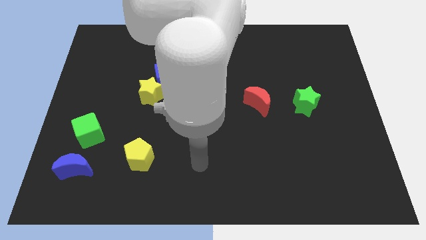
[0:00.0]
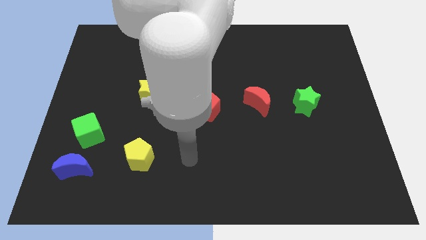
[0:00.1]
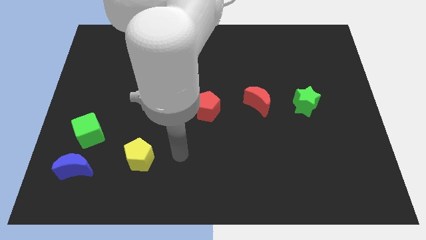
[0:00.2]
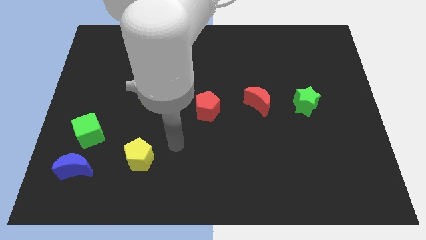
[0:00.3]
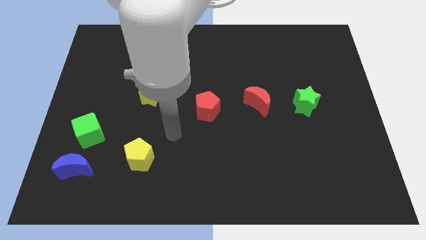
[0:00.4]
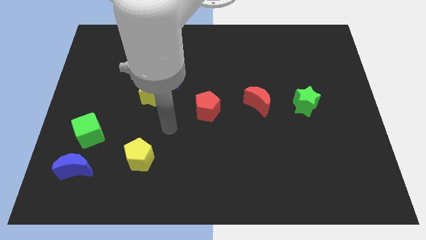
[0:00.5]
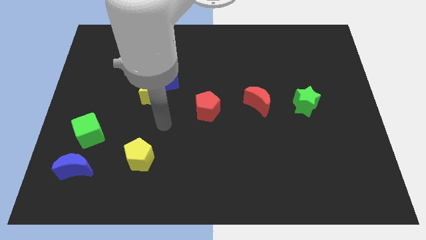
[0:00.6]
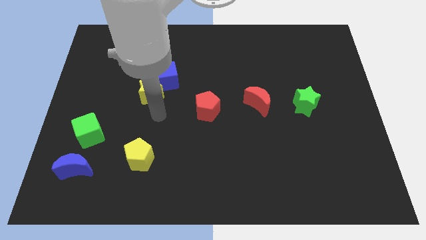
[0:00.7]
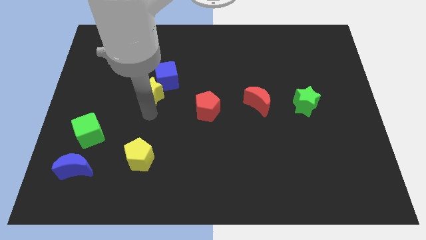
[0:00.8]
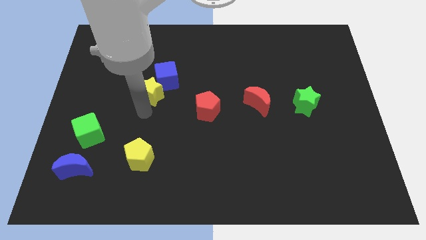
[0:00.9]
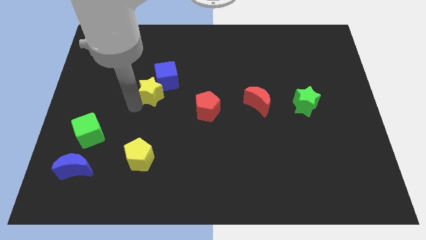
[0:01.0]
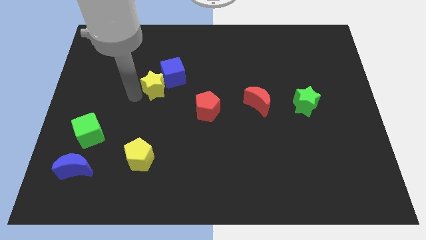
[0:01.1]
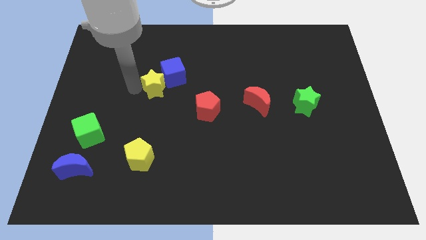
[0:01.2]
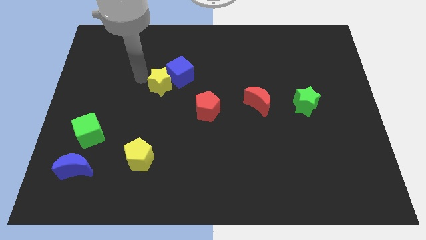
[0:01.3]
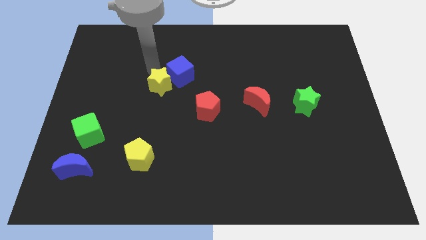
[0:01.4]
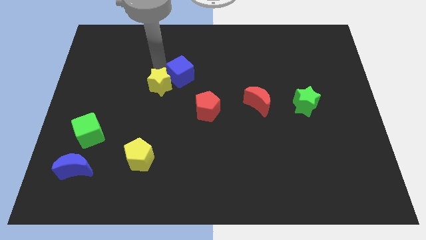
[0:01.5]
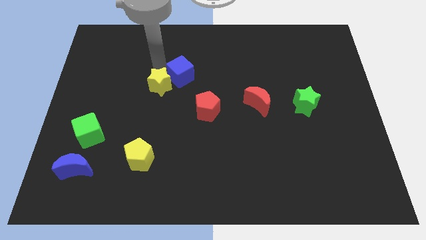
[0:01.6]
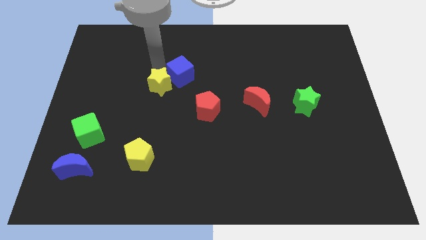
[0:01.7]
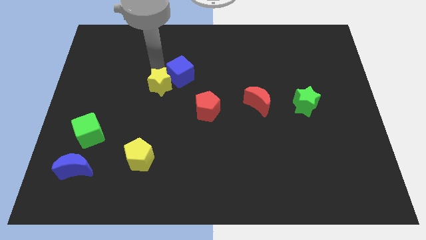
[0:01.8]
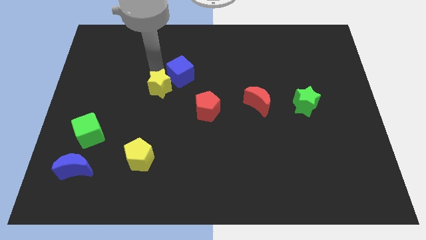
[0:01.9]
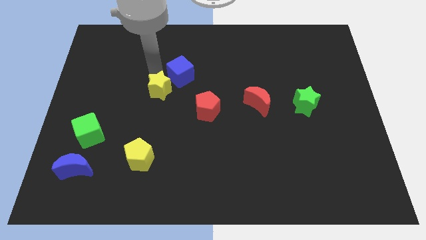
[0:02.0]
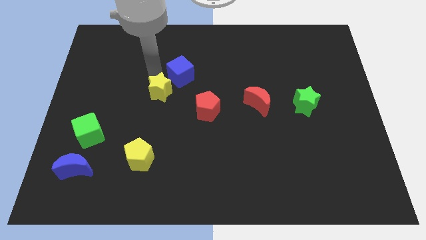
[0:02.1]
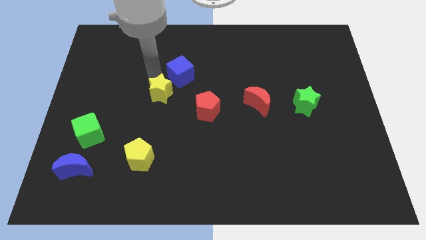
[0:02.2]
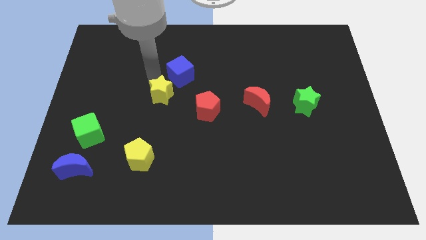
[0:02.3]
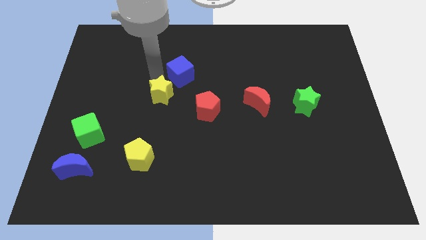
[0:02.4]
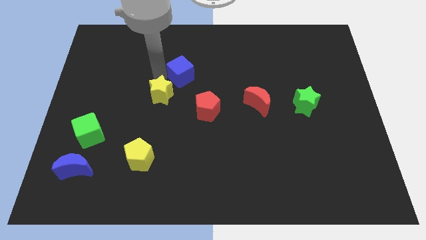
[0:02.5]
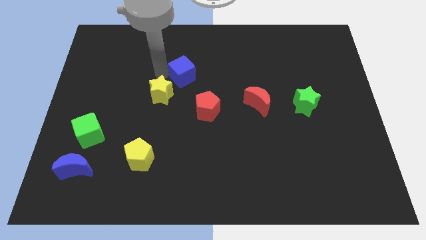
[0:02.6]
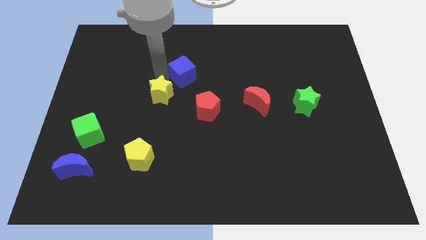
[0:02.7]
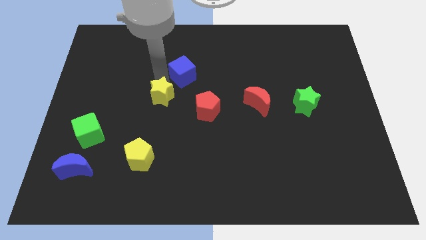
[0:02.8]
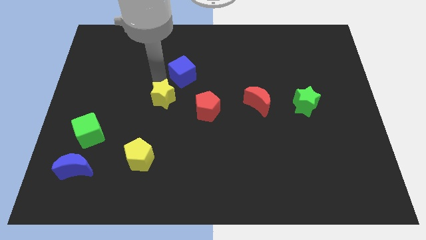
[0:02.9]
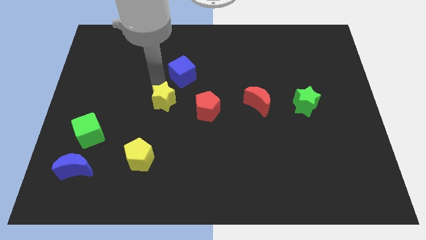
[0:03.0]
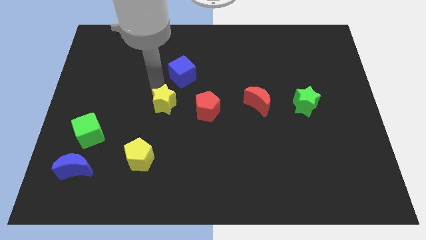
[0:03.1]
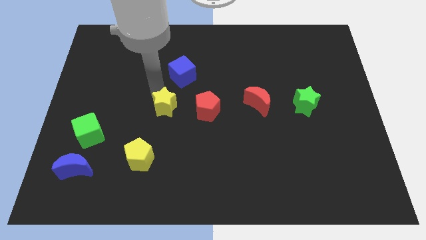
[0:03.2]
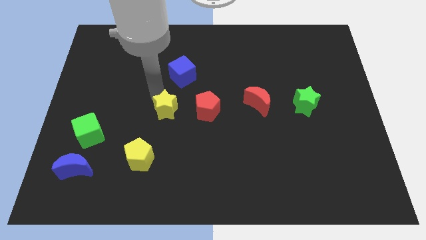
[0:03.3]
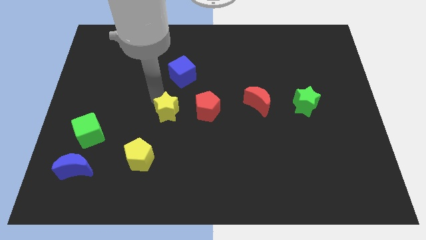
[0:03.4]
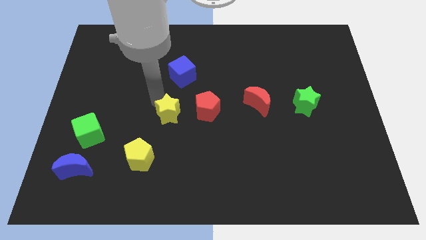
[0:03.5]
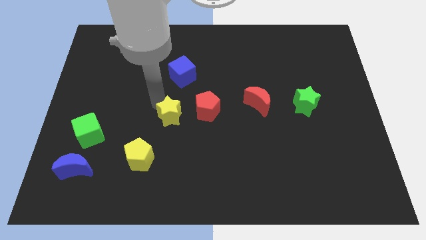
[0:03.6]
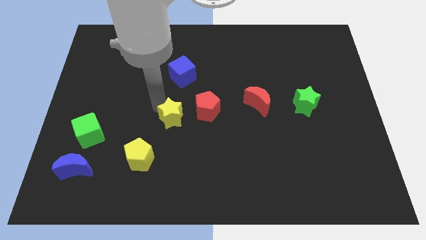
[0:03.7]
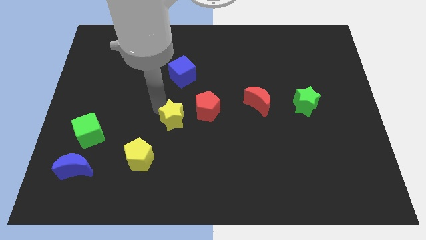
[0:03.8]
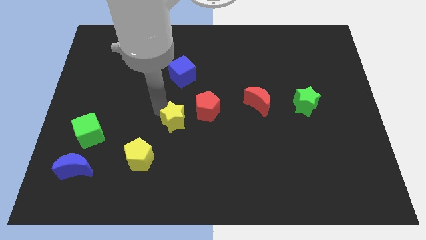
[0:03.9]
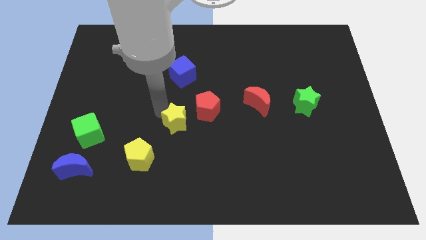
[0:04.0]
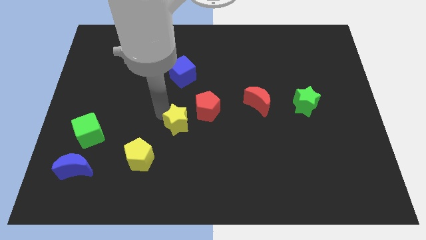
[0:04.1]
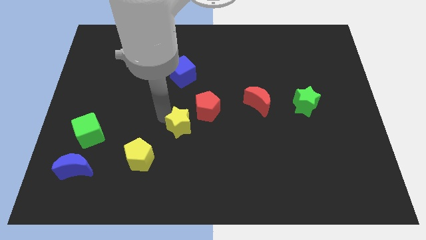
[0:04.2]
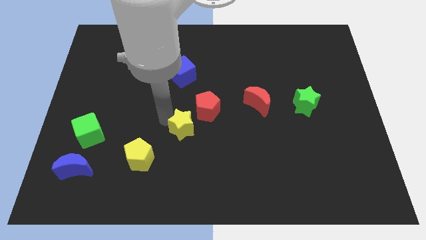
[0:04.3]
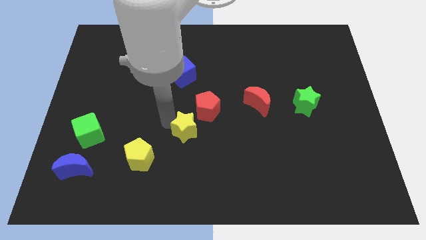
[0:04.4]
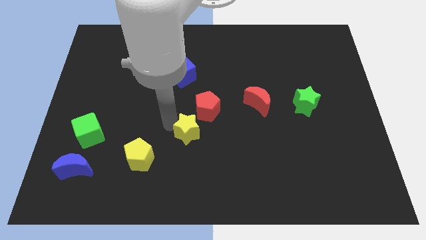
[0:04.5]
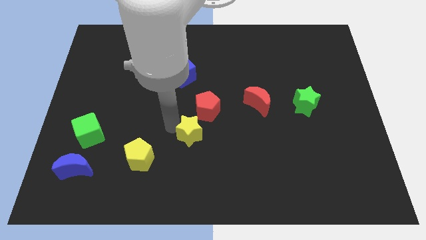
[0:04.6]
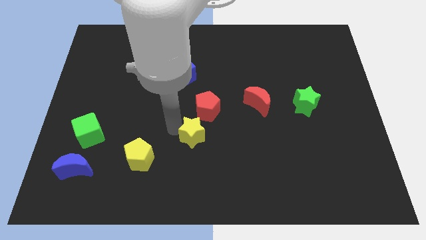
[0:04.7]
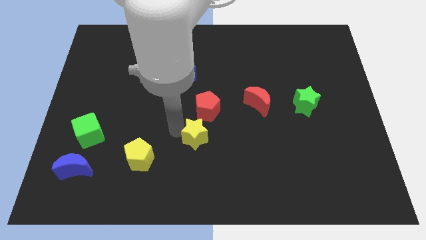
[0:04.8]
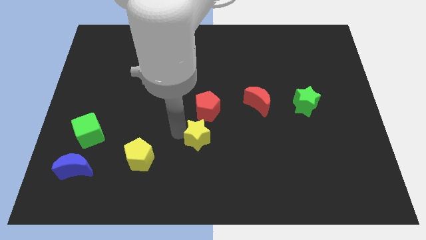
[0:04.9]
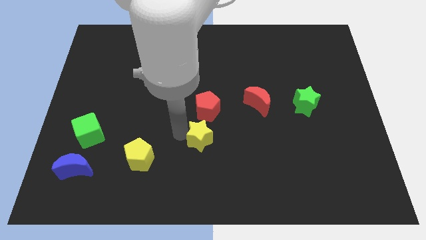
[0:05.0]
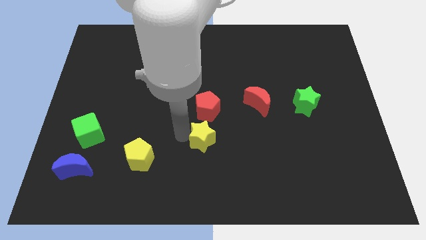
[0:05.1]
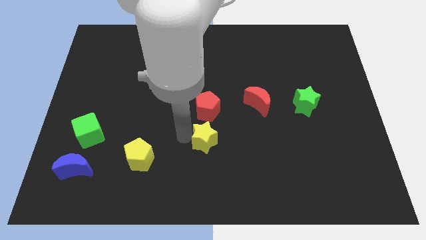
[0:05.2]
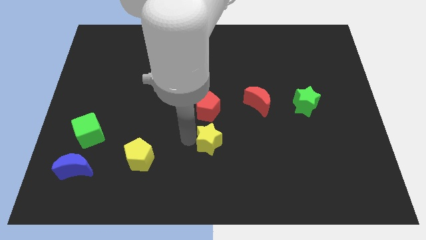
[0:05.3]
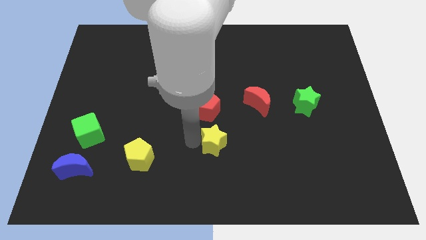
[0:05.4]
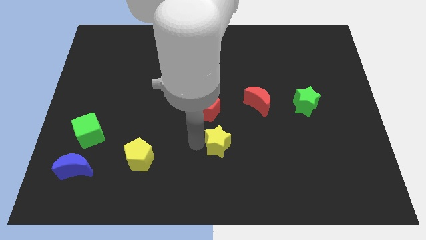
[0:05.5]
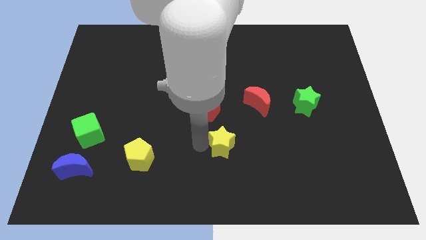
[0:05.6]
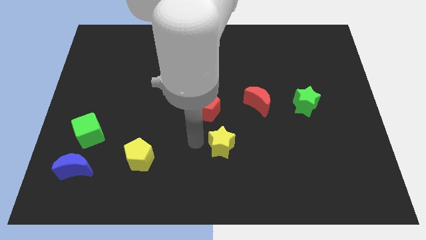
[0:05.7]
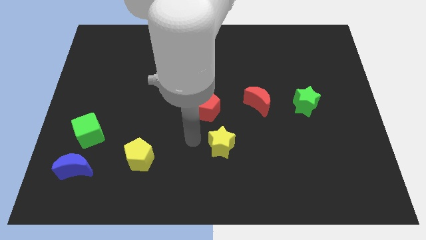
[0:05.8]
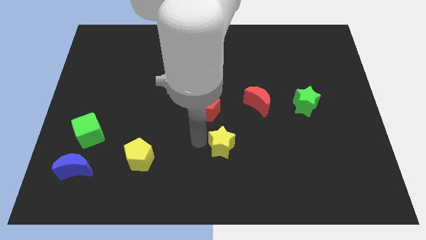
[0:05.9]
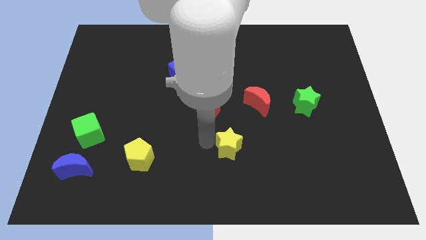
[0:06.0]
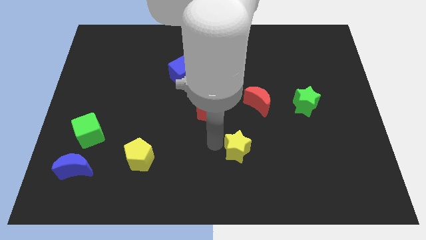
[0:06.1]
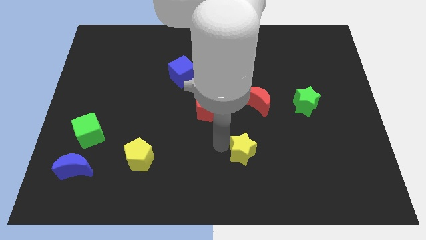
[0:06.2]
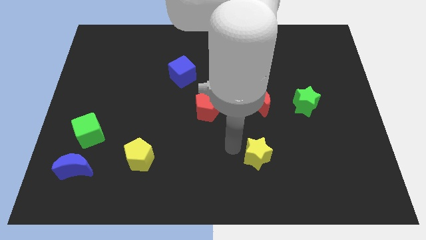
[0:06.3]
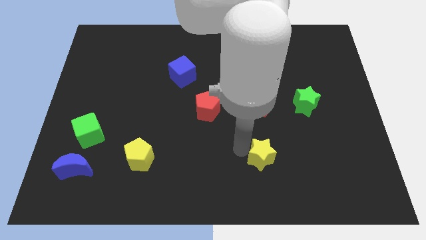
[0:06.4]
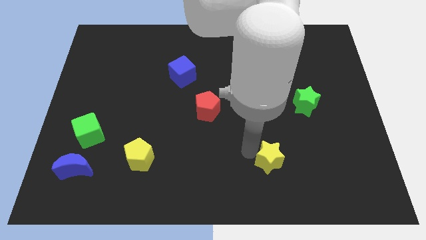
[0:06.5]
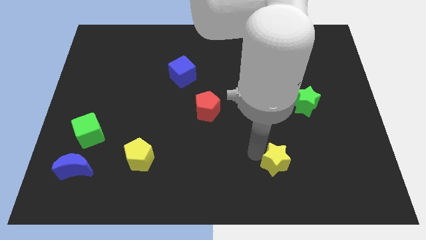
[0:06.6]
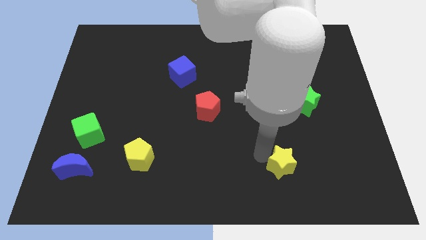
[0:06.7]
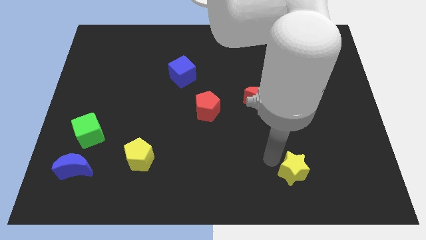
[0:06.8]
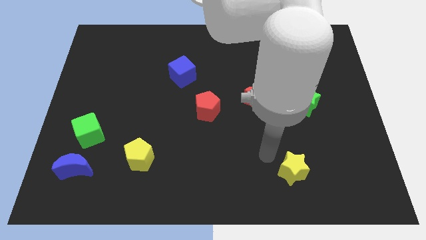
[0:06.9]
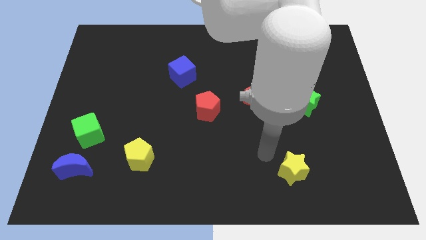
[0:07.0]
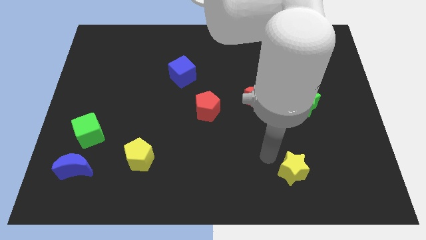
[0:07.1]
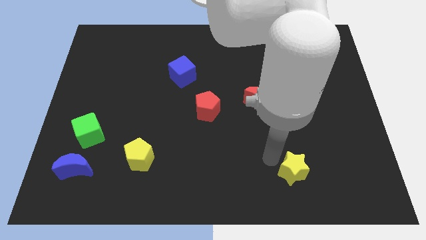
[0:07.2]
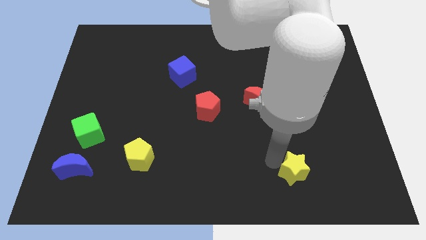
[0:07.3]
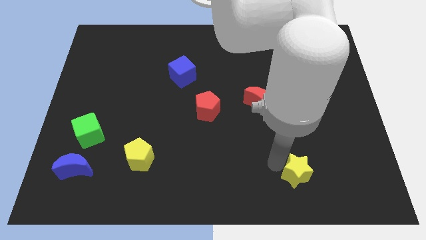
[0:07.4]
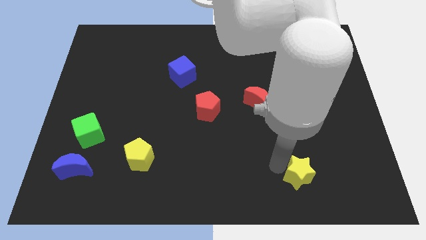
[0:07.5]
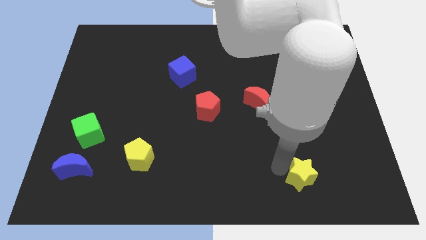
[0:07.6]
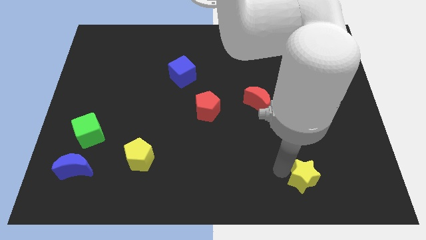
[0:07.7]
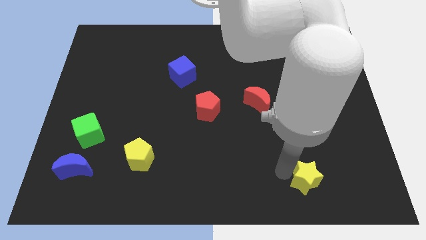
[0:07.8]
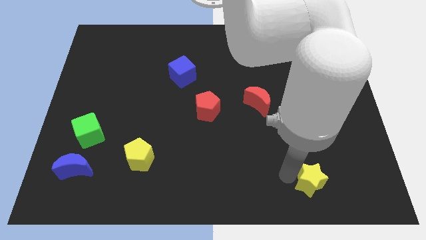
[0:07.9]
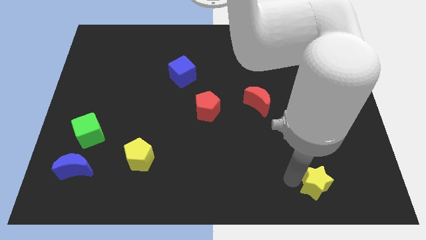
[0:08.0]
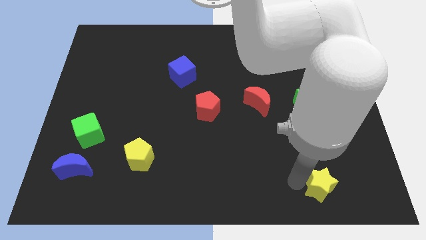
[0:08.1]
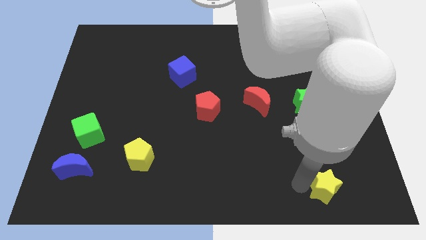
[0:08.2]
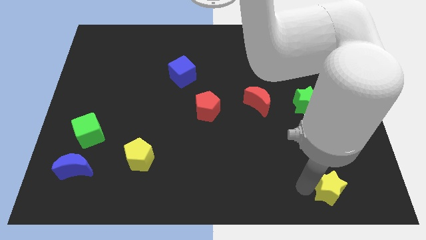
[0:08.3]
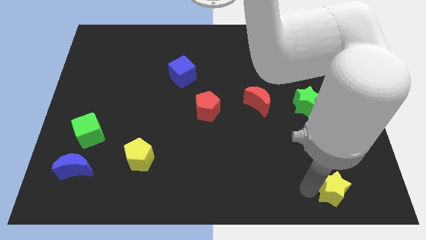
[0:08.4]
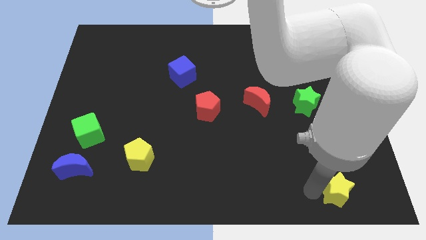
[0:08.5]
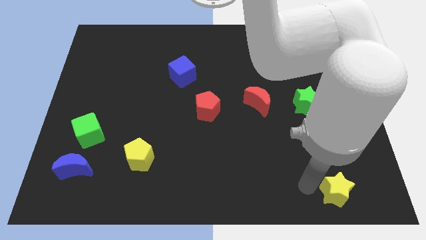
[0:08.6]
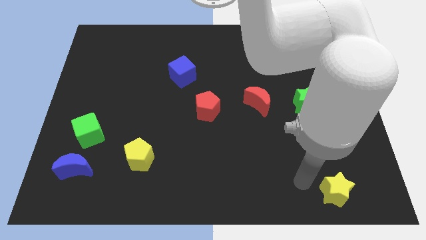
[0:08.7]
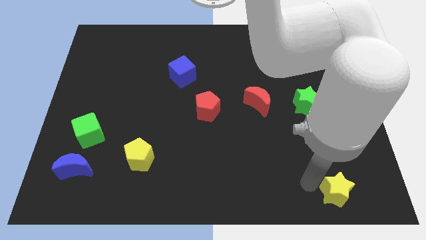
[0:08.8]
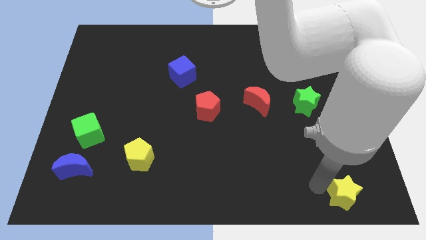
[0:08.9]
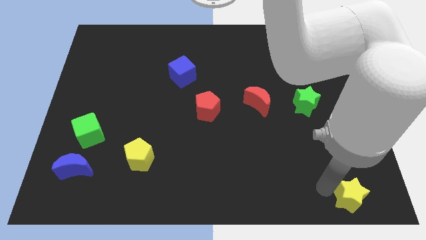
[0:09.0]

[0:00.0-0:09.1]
put the yellow star to the bottom right corner
